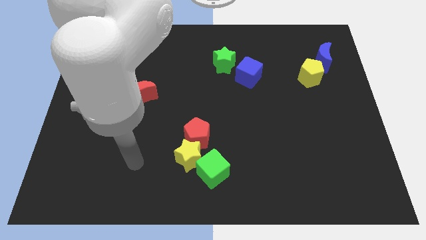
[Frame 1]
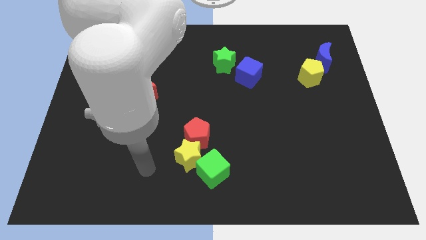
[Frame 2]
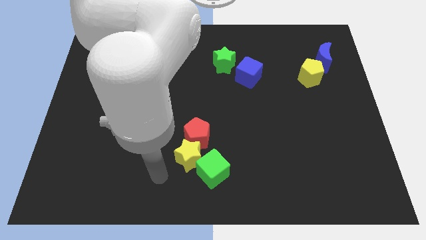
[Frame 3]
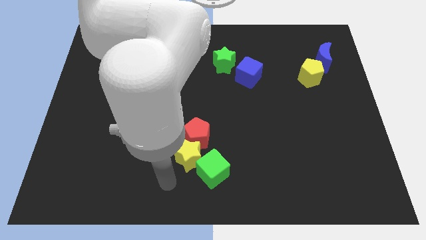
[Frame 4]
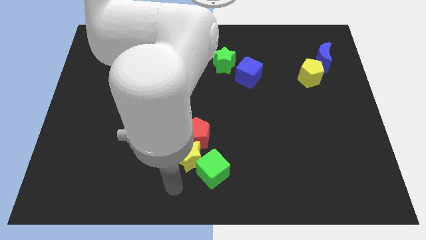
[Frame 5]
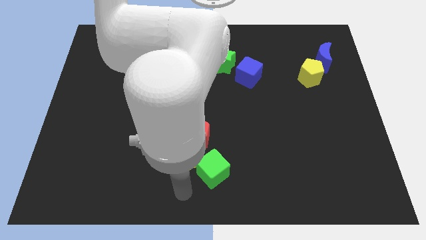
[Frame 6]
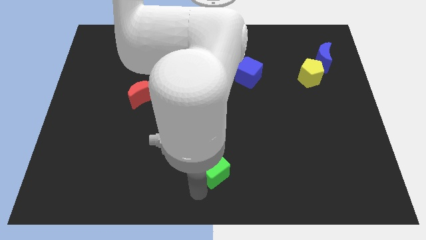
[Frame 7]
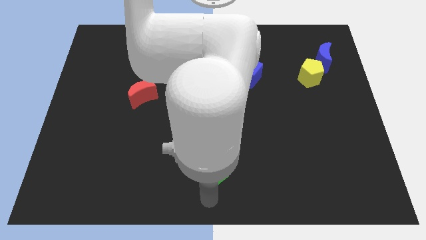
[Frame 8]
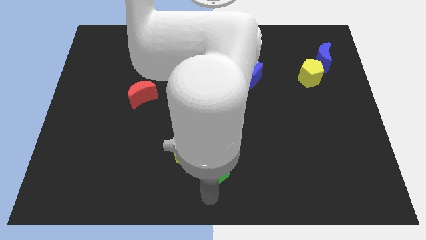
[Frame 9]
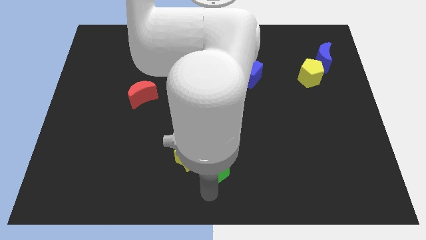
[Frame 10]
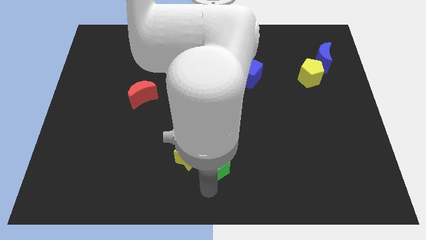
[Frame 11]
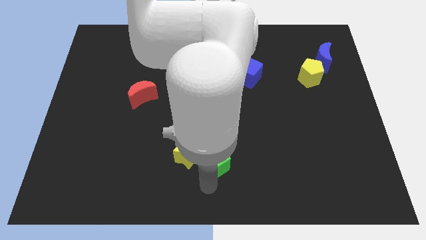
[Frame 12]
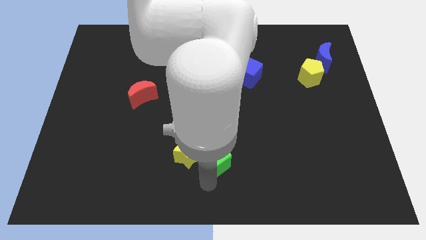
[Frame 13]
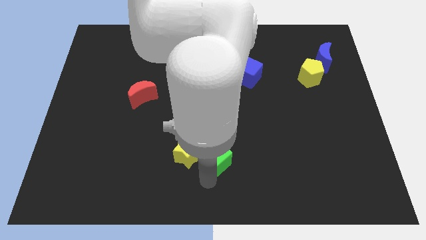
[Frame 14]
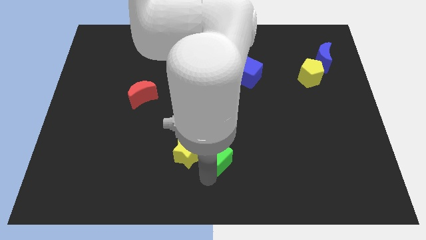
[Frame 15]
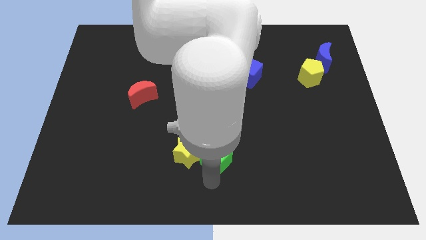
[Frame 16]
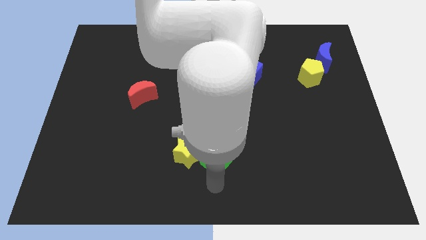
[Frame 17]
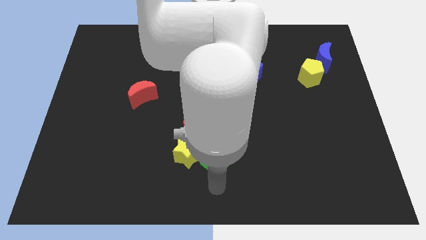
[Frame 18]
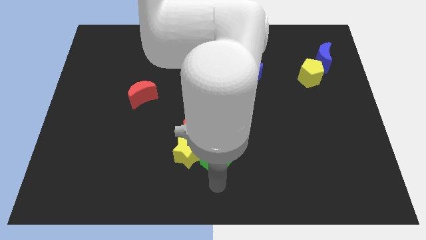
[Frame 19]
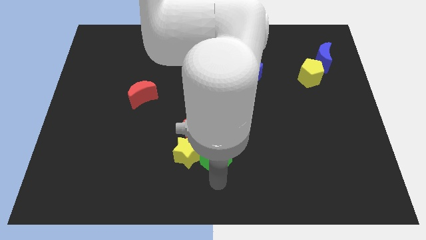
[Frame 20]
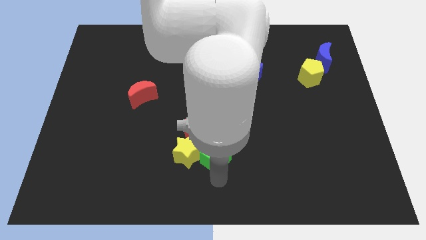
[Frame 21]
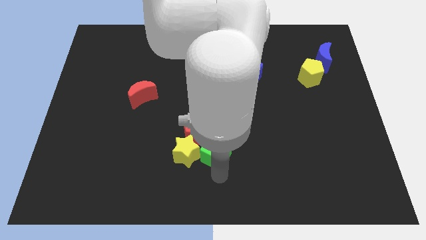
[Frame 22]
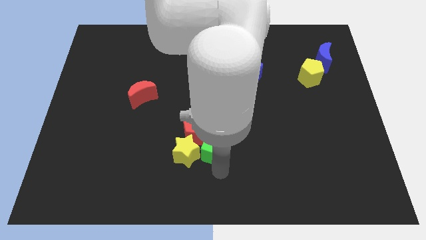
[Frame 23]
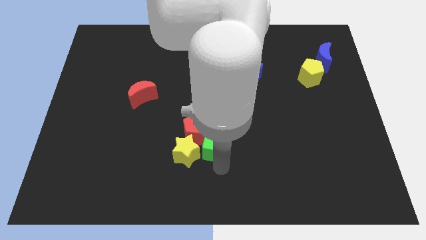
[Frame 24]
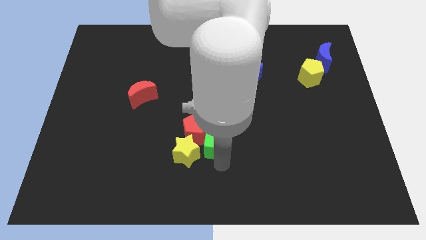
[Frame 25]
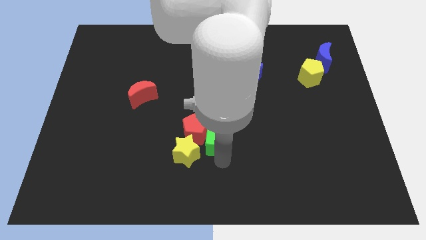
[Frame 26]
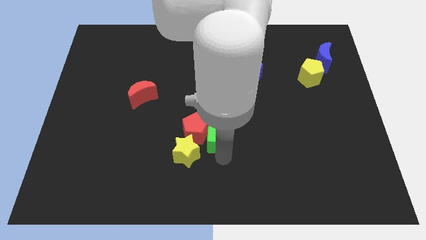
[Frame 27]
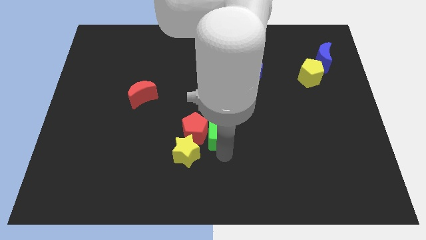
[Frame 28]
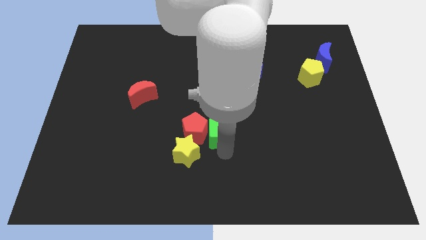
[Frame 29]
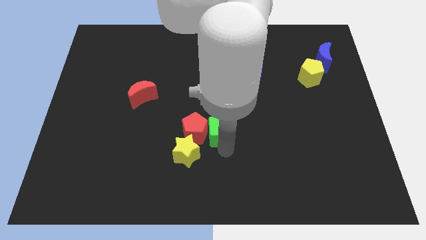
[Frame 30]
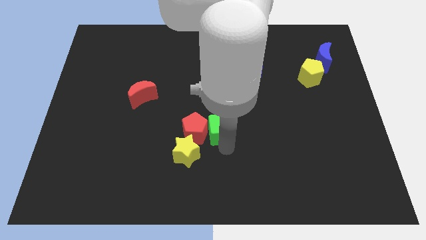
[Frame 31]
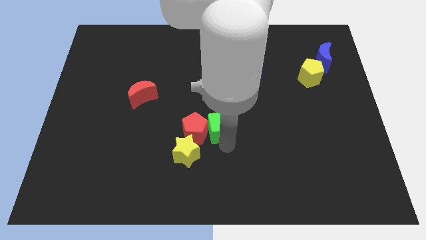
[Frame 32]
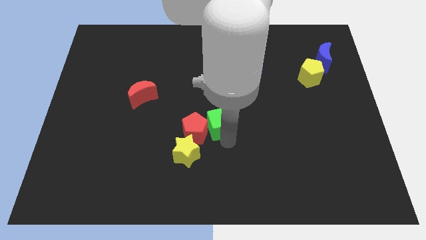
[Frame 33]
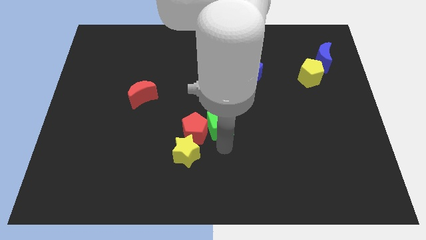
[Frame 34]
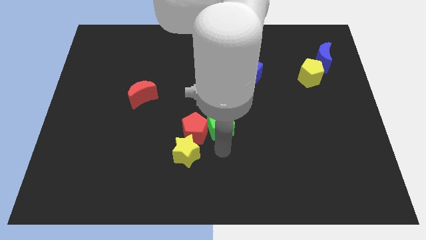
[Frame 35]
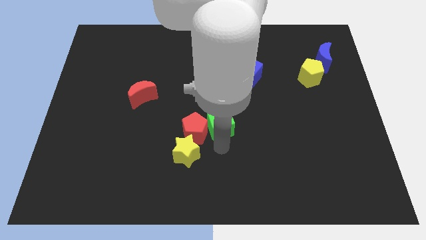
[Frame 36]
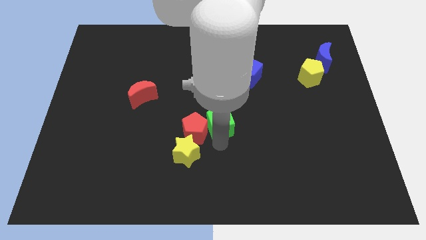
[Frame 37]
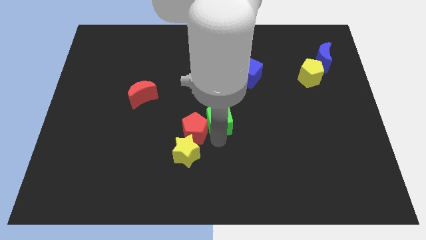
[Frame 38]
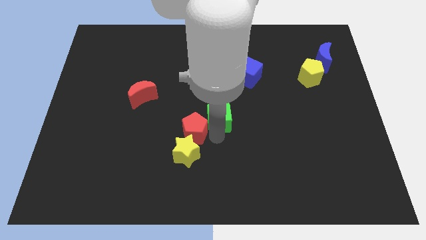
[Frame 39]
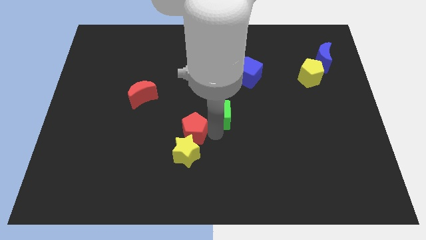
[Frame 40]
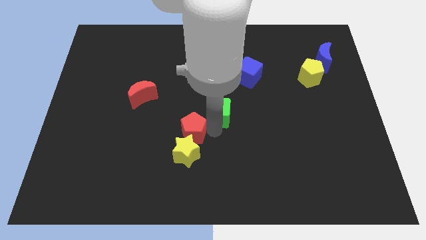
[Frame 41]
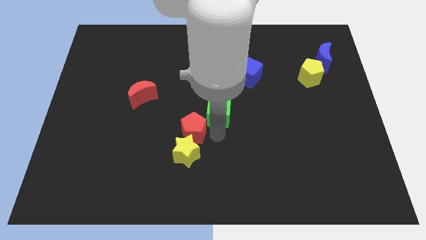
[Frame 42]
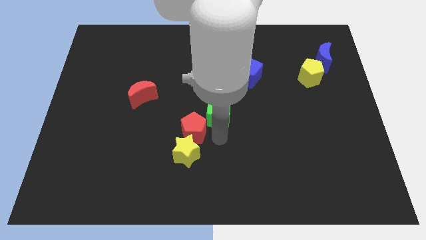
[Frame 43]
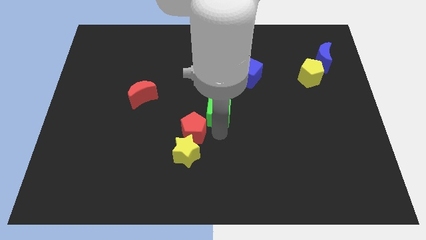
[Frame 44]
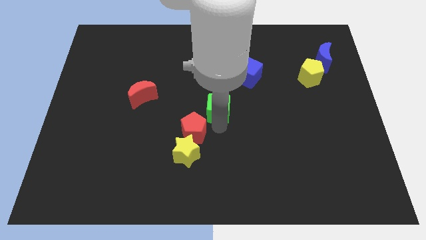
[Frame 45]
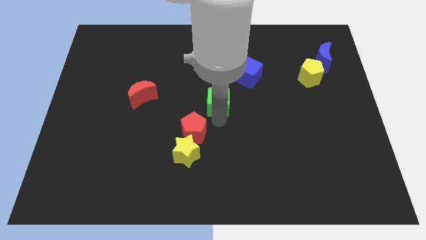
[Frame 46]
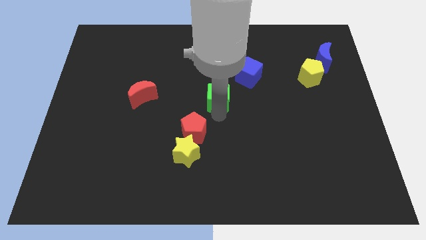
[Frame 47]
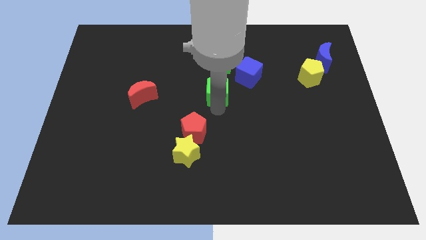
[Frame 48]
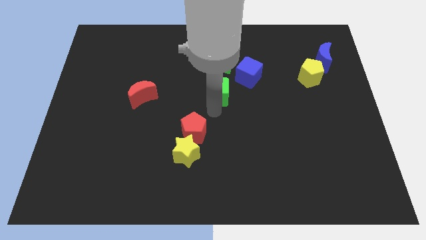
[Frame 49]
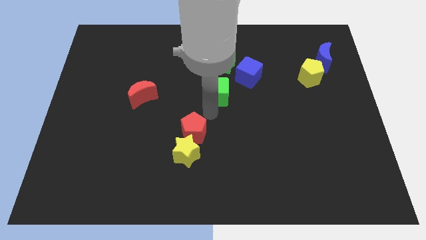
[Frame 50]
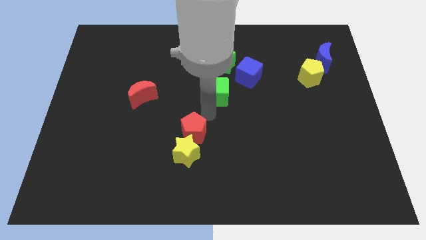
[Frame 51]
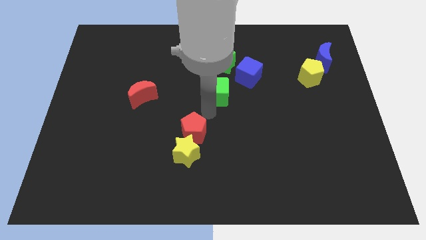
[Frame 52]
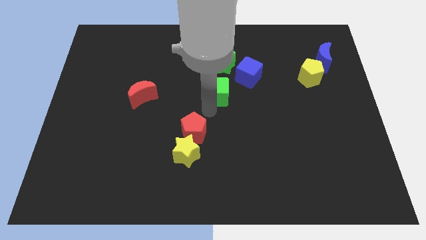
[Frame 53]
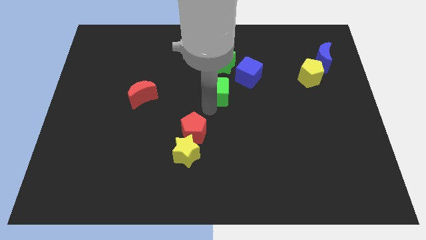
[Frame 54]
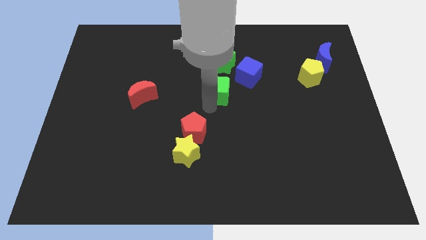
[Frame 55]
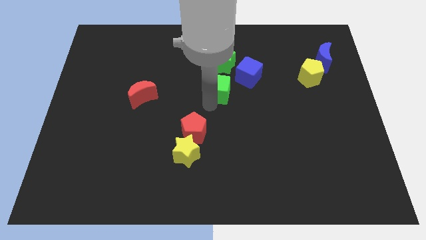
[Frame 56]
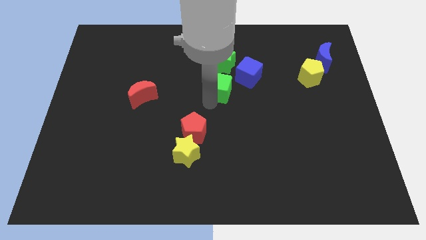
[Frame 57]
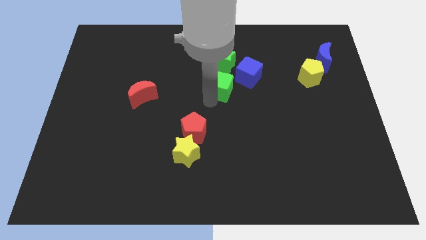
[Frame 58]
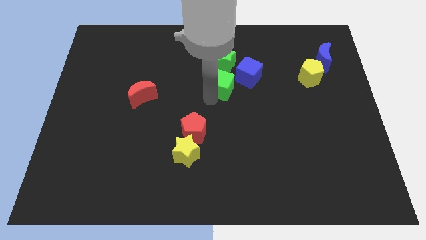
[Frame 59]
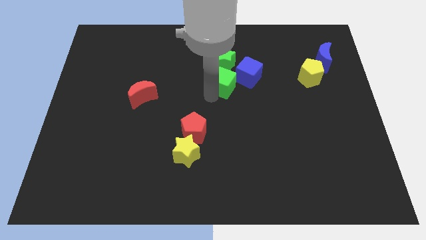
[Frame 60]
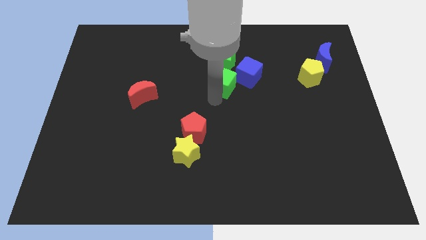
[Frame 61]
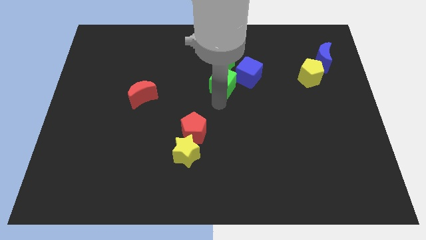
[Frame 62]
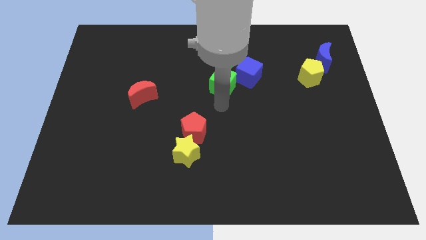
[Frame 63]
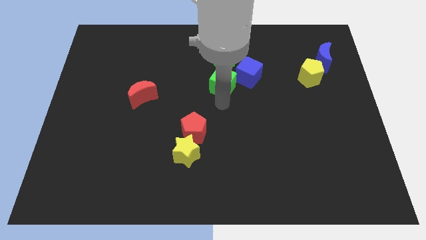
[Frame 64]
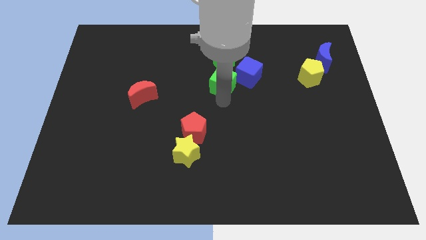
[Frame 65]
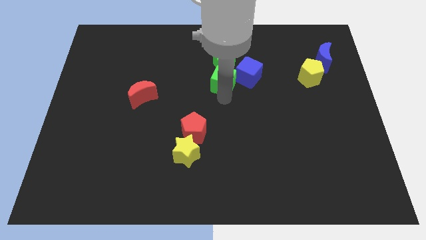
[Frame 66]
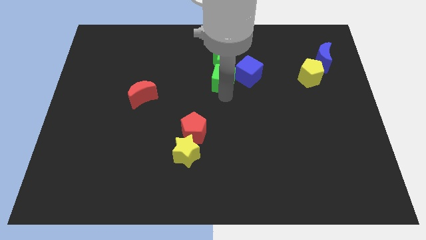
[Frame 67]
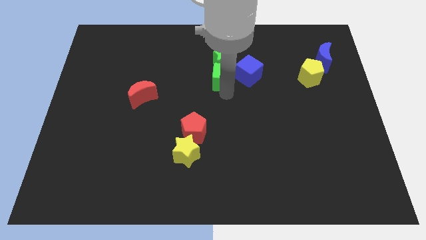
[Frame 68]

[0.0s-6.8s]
push the green cube towards the green star
